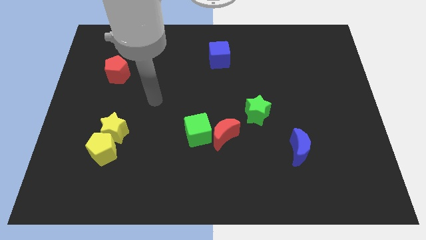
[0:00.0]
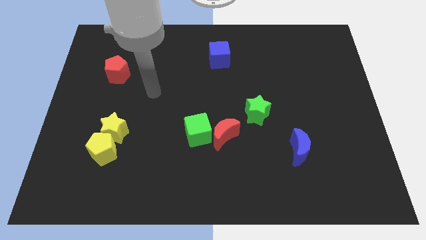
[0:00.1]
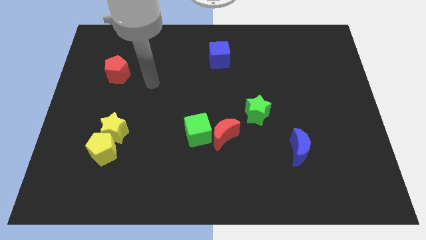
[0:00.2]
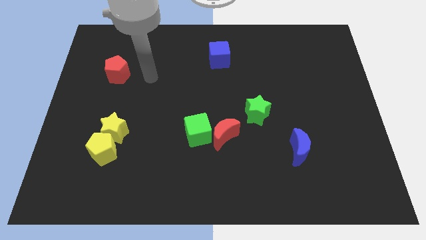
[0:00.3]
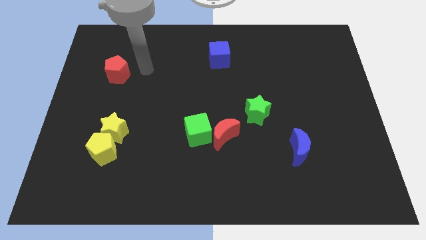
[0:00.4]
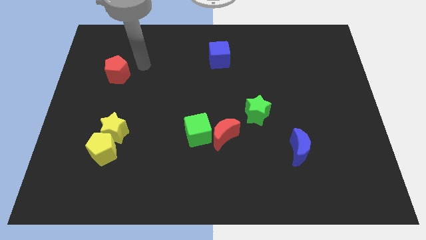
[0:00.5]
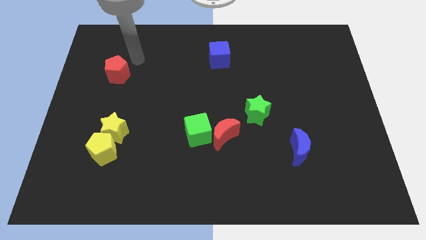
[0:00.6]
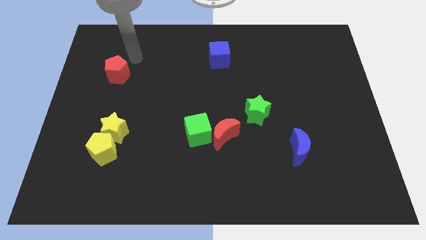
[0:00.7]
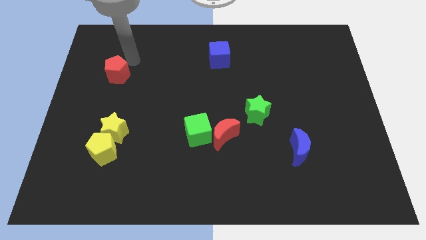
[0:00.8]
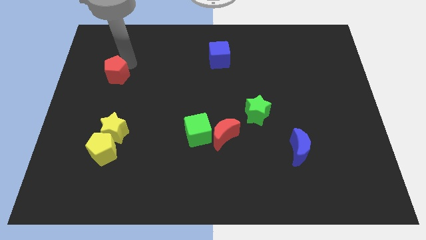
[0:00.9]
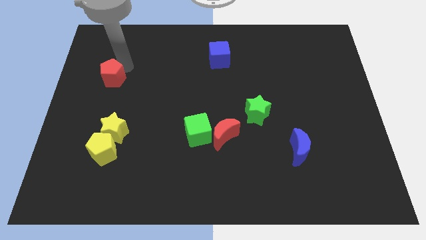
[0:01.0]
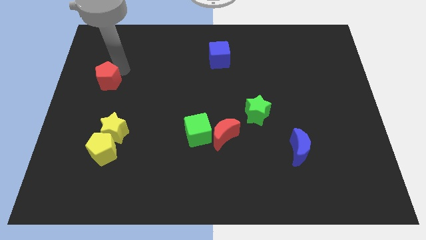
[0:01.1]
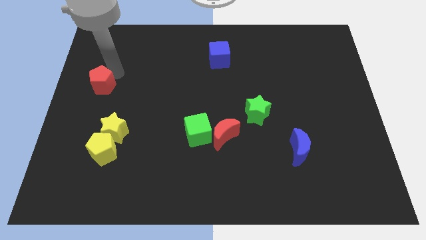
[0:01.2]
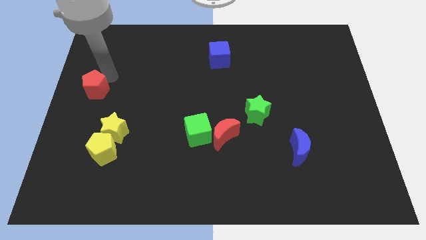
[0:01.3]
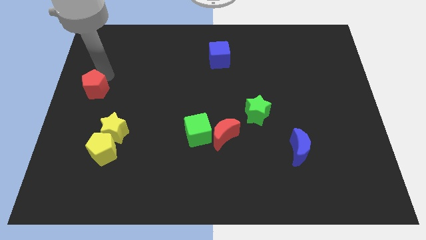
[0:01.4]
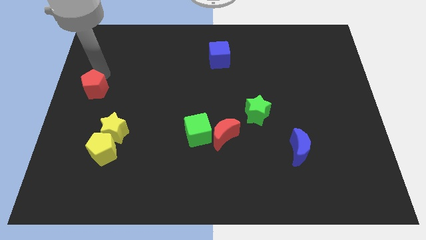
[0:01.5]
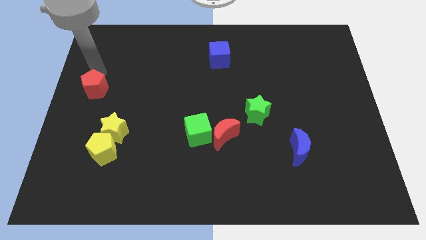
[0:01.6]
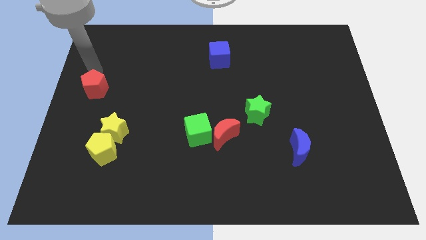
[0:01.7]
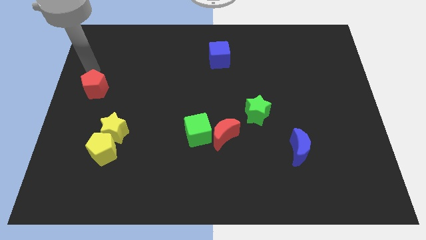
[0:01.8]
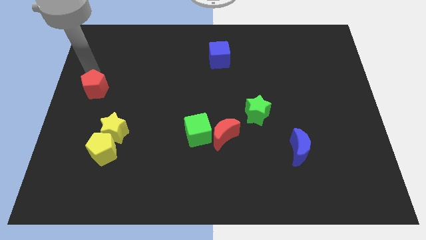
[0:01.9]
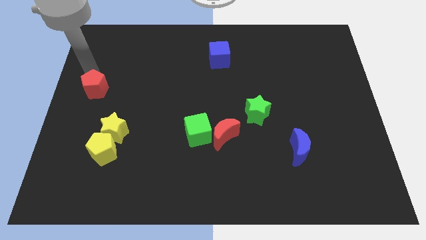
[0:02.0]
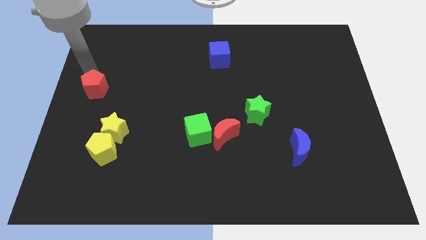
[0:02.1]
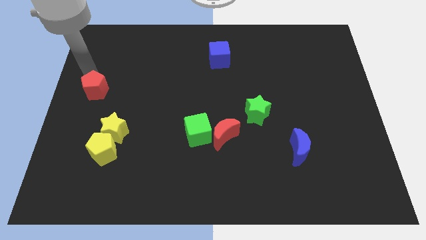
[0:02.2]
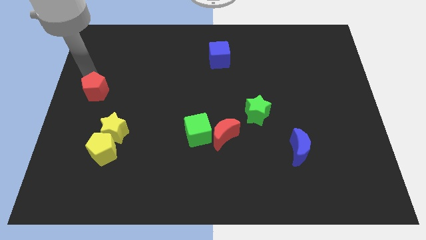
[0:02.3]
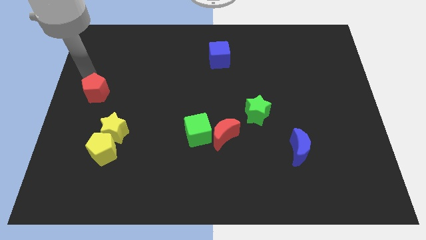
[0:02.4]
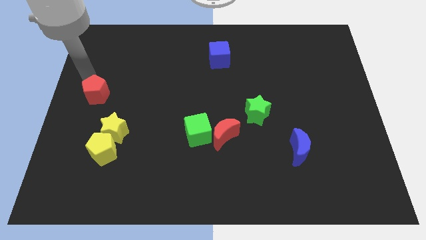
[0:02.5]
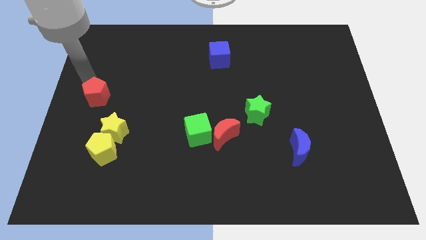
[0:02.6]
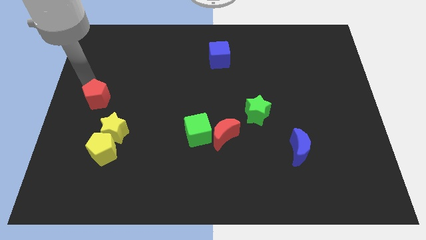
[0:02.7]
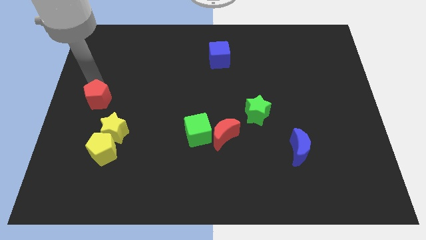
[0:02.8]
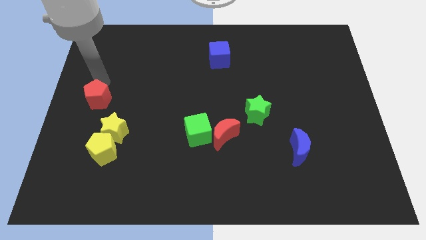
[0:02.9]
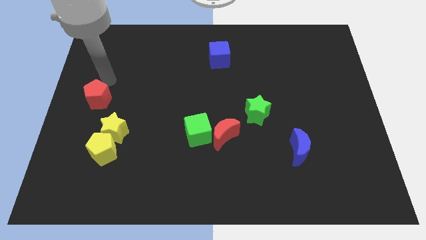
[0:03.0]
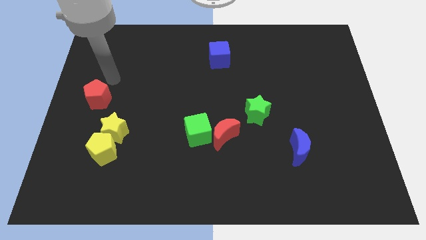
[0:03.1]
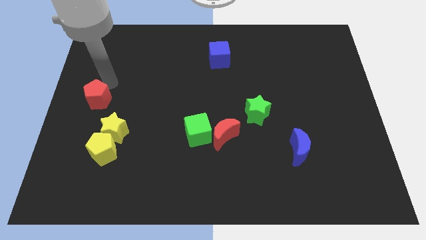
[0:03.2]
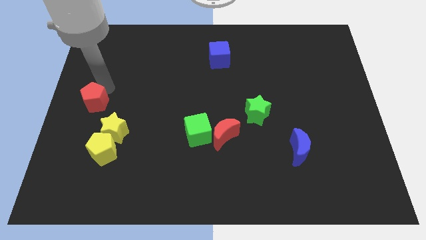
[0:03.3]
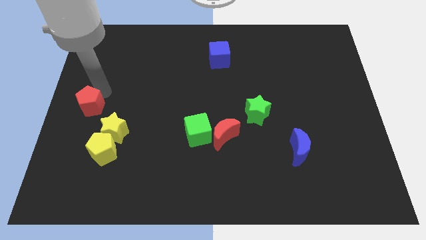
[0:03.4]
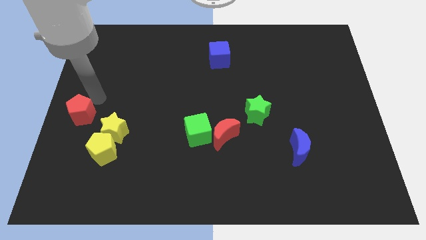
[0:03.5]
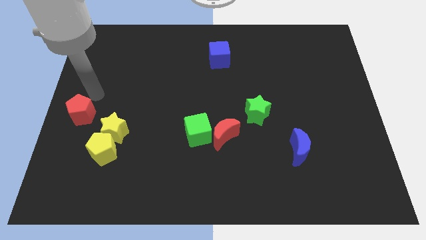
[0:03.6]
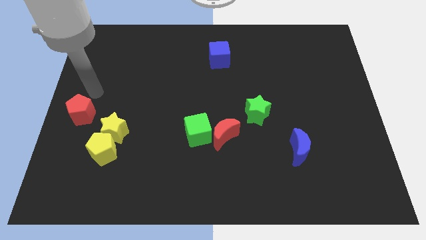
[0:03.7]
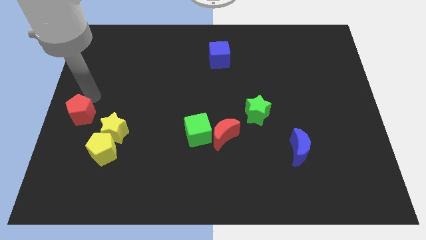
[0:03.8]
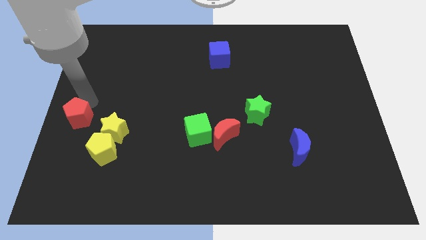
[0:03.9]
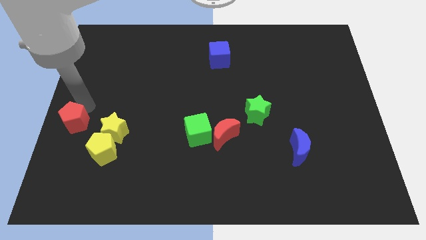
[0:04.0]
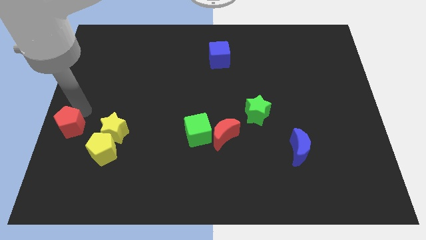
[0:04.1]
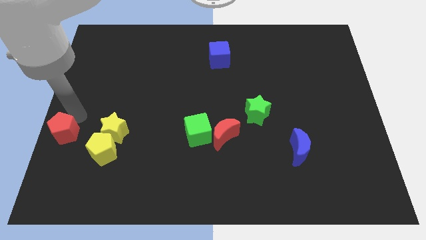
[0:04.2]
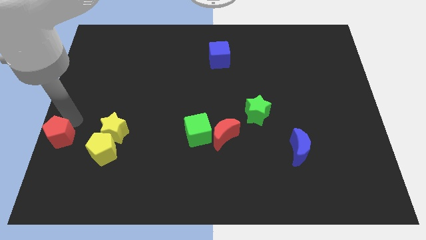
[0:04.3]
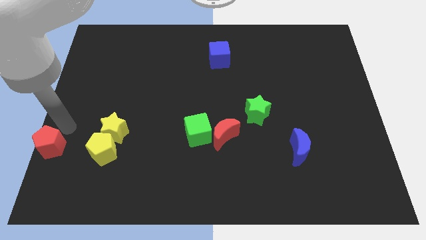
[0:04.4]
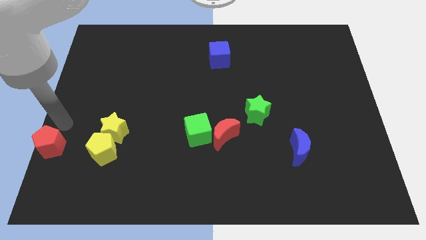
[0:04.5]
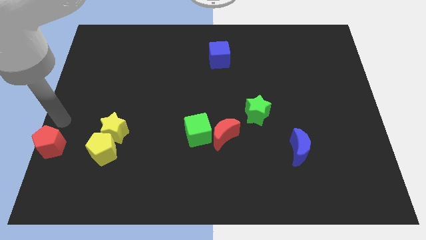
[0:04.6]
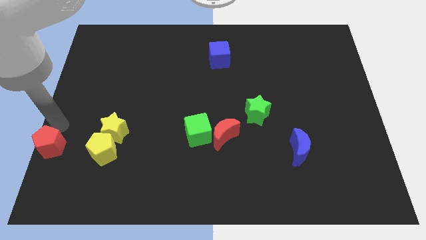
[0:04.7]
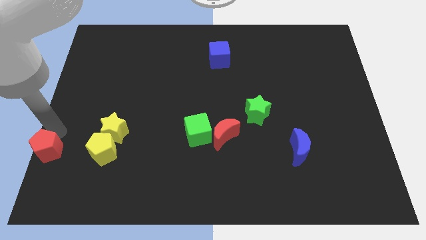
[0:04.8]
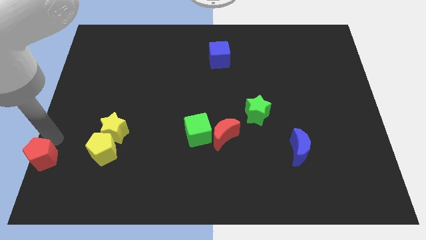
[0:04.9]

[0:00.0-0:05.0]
put the red pentagon to the bottom left

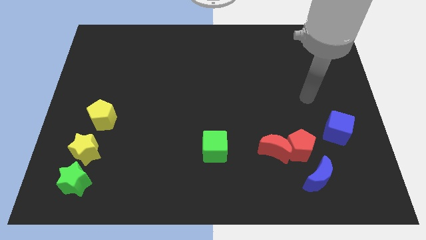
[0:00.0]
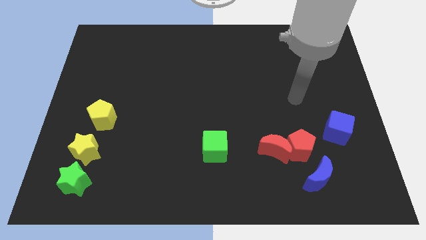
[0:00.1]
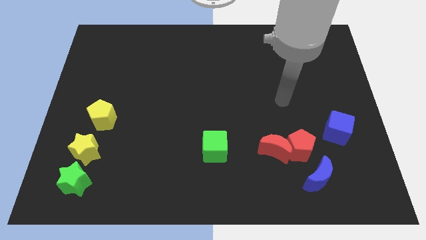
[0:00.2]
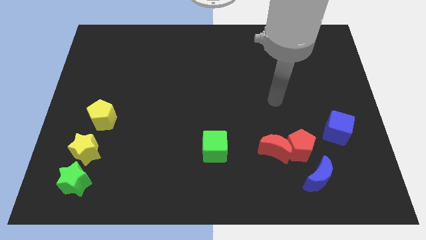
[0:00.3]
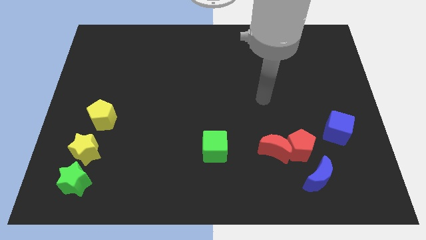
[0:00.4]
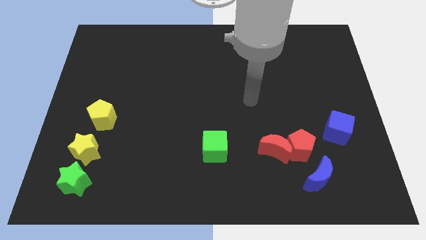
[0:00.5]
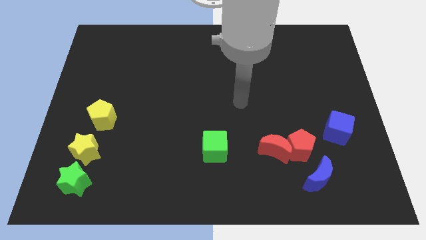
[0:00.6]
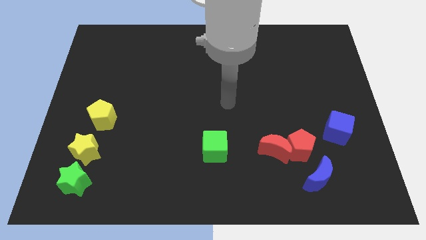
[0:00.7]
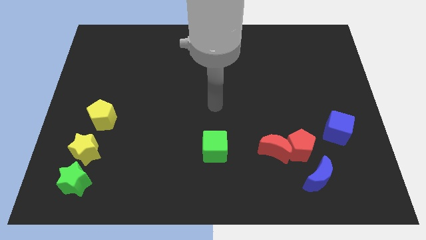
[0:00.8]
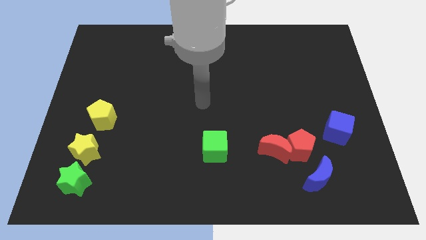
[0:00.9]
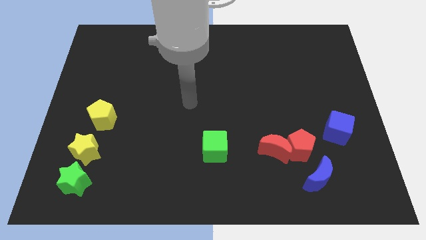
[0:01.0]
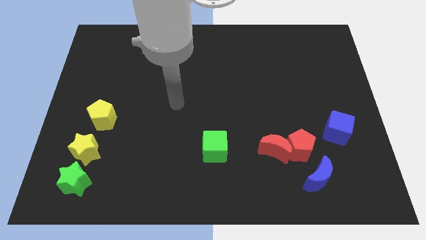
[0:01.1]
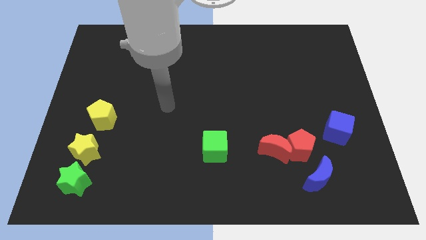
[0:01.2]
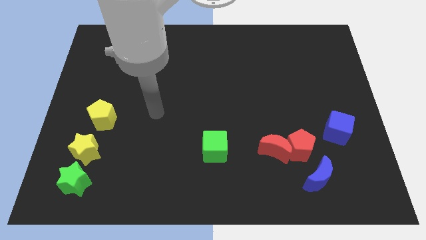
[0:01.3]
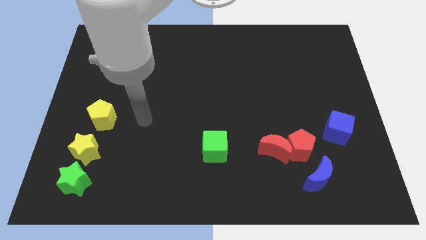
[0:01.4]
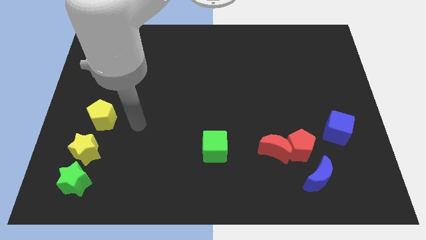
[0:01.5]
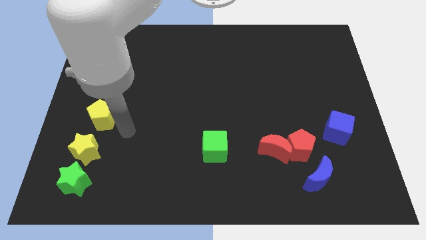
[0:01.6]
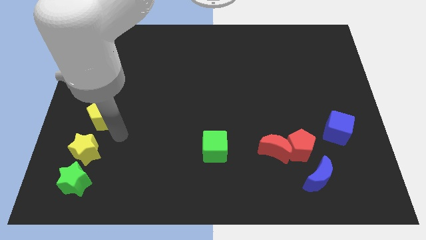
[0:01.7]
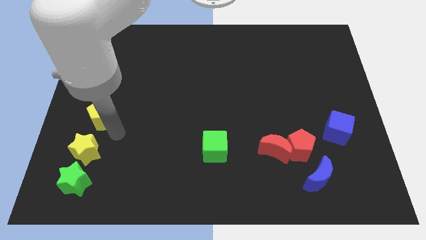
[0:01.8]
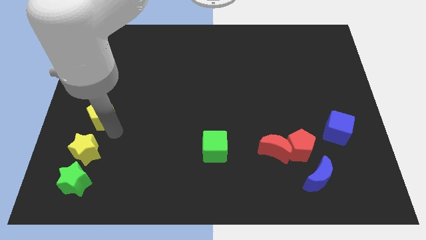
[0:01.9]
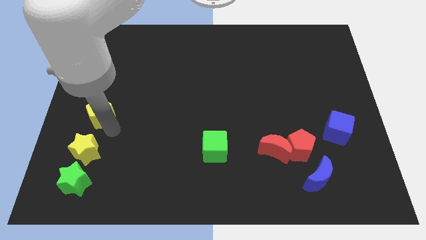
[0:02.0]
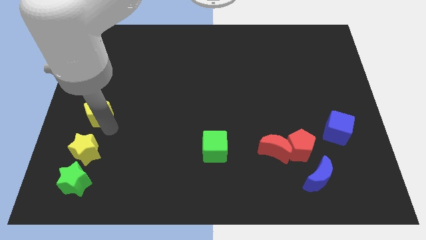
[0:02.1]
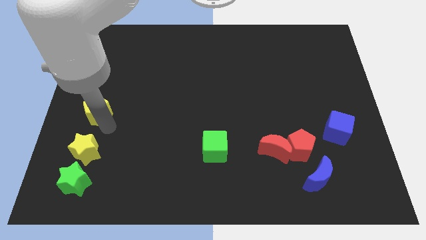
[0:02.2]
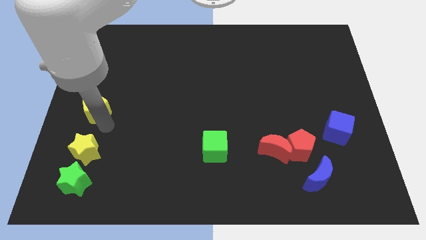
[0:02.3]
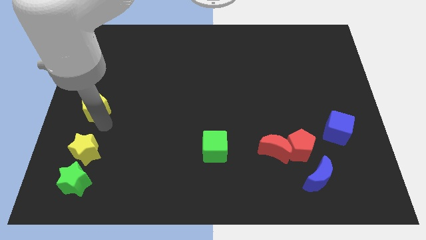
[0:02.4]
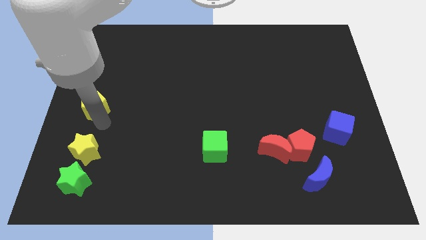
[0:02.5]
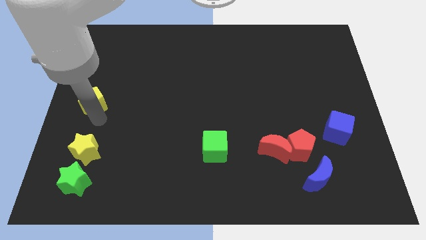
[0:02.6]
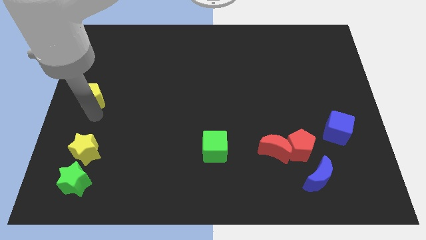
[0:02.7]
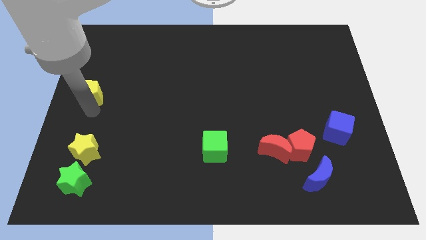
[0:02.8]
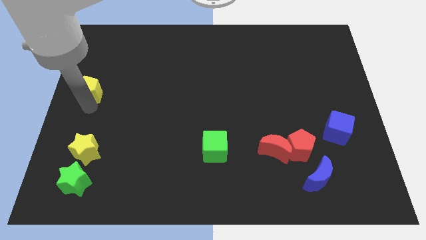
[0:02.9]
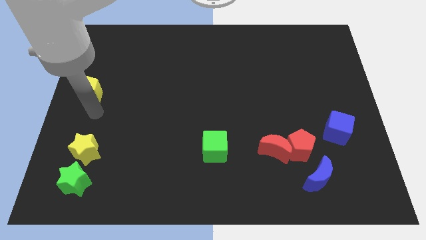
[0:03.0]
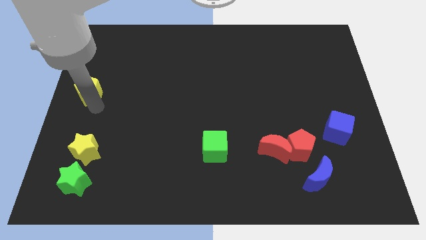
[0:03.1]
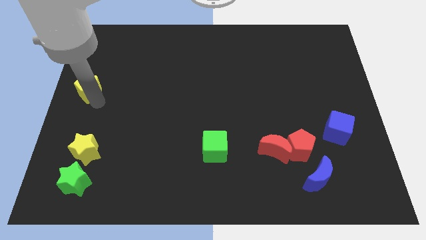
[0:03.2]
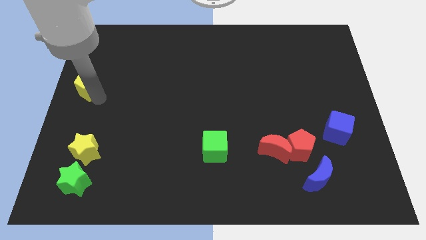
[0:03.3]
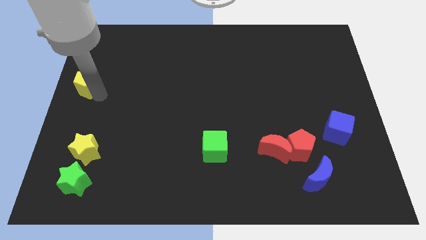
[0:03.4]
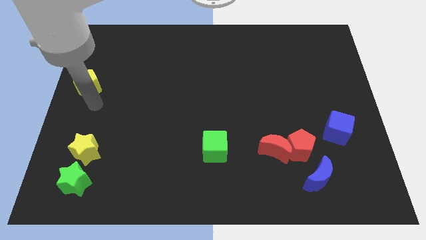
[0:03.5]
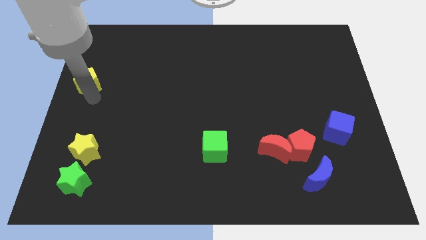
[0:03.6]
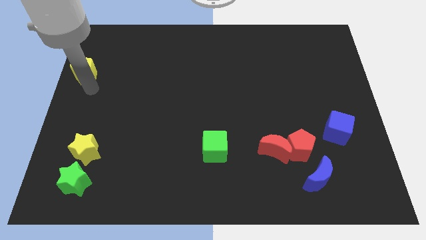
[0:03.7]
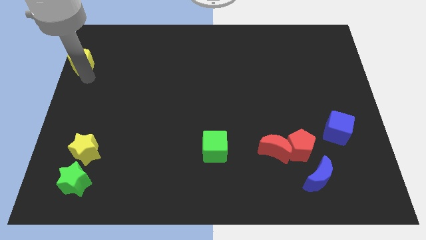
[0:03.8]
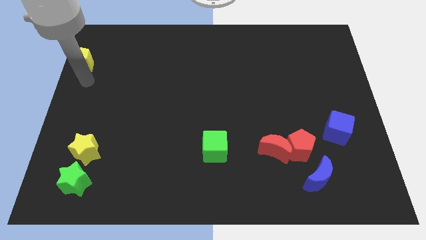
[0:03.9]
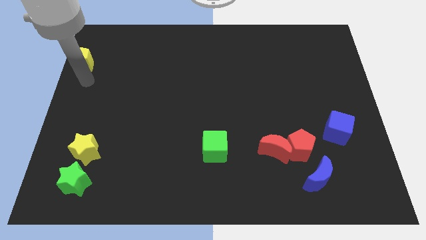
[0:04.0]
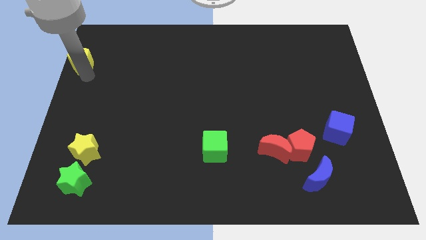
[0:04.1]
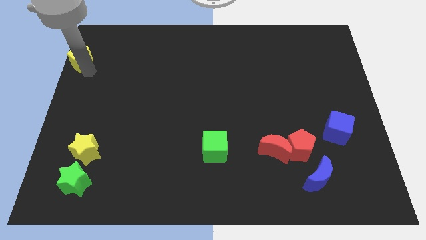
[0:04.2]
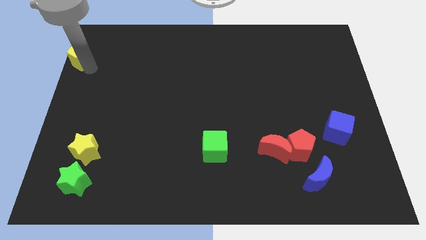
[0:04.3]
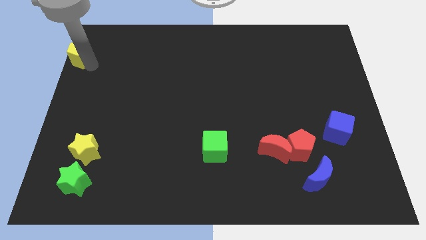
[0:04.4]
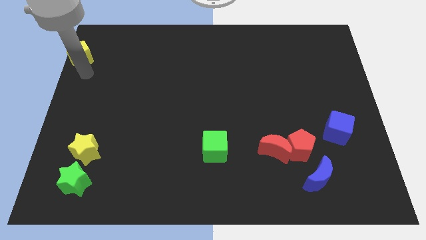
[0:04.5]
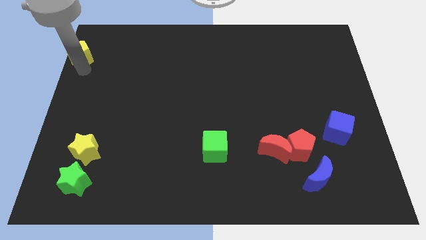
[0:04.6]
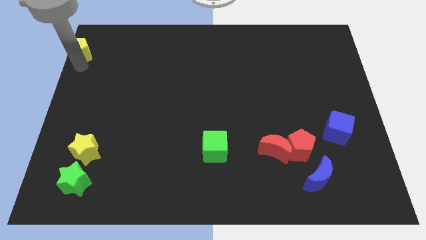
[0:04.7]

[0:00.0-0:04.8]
slide the yellow pentagon to the top left of the board
